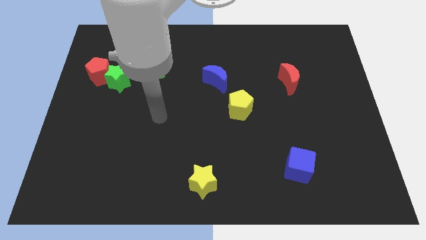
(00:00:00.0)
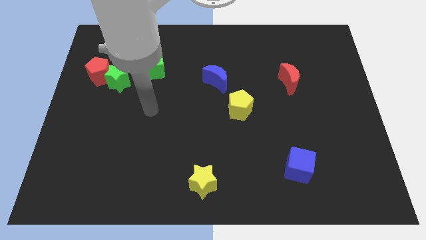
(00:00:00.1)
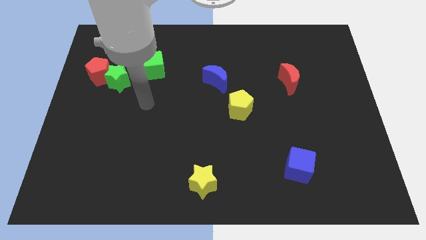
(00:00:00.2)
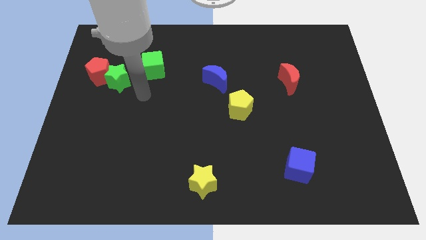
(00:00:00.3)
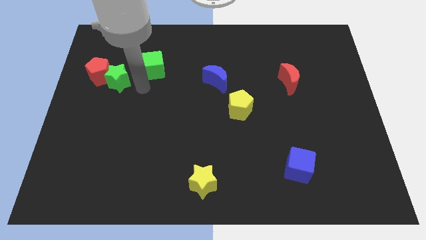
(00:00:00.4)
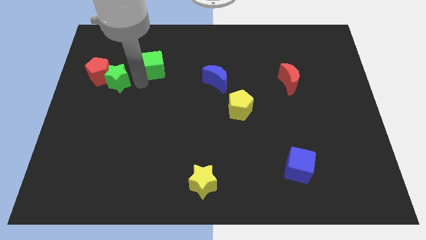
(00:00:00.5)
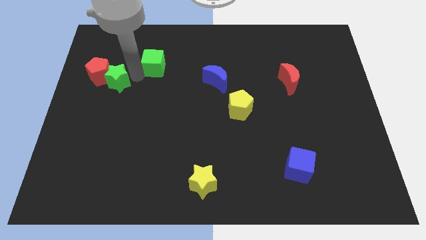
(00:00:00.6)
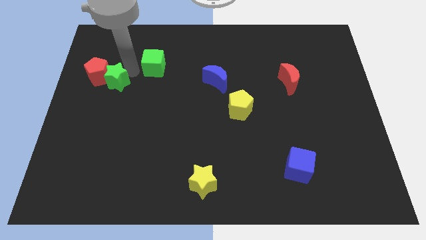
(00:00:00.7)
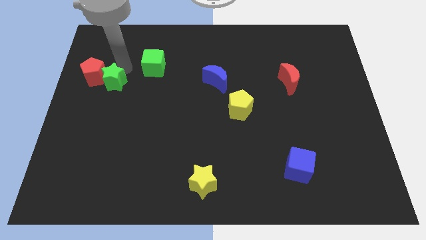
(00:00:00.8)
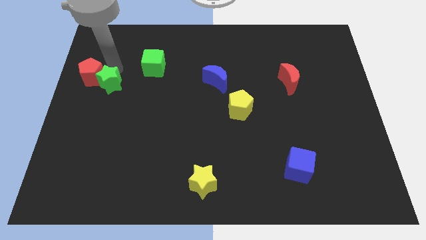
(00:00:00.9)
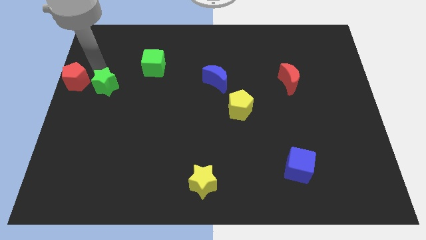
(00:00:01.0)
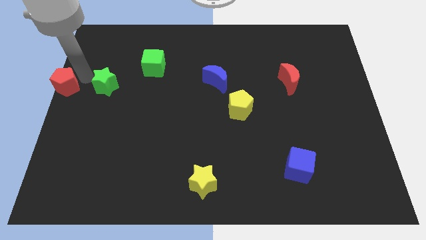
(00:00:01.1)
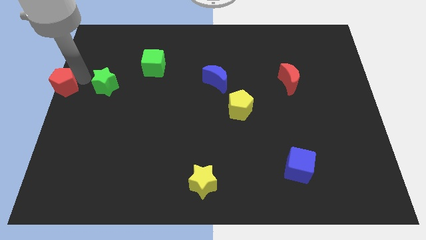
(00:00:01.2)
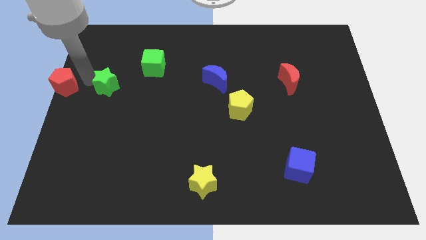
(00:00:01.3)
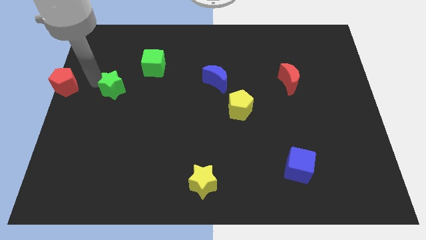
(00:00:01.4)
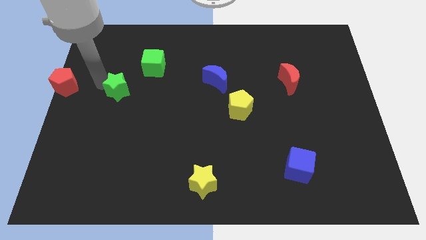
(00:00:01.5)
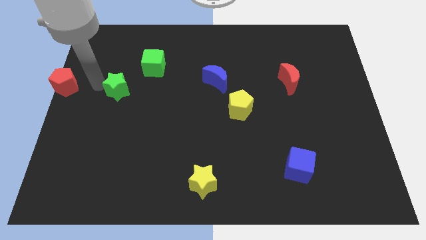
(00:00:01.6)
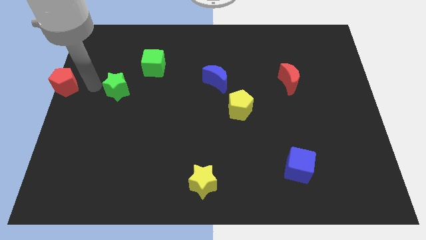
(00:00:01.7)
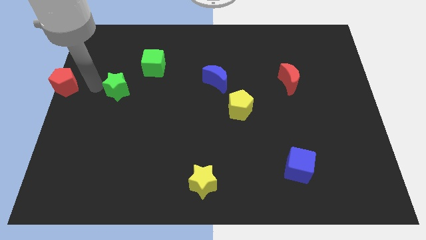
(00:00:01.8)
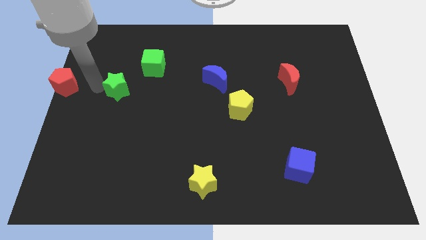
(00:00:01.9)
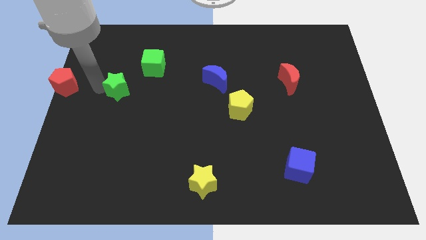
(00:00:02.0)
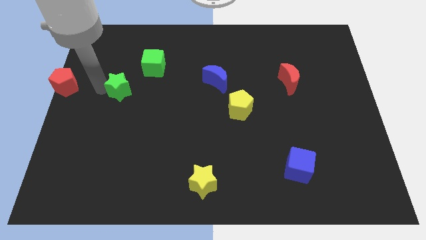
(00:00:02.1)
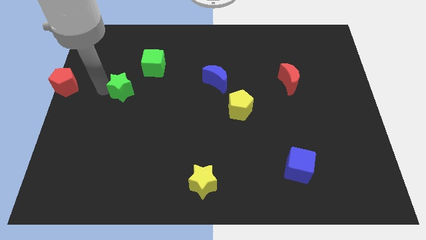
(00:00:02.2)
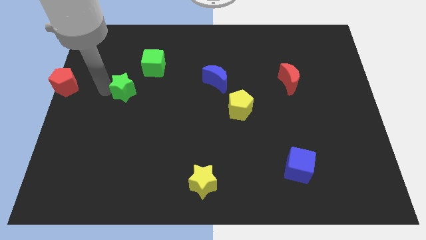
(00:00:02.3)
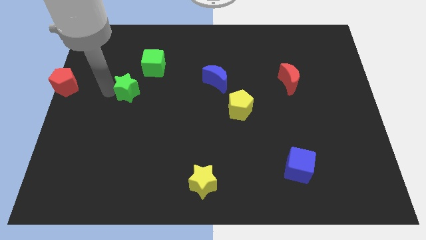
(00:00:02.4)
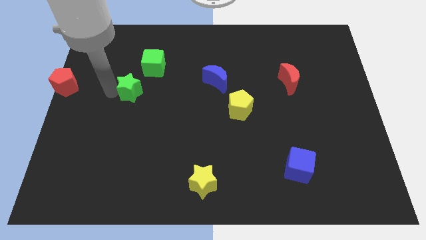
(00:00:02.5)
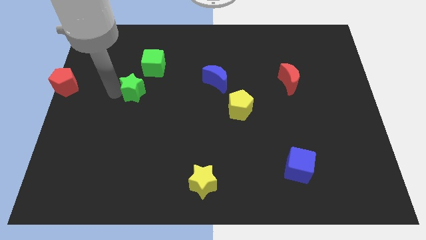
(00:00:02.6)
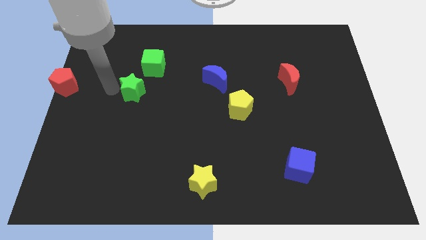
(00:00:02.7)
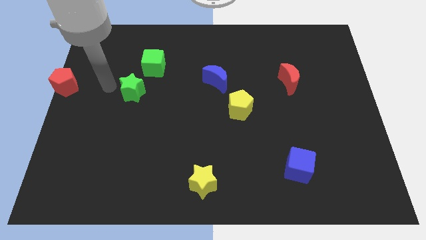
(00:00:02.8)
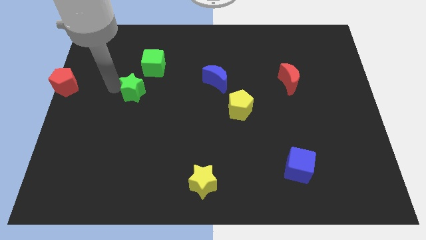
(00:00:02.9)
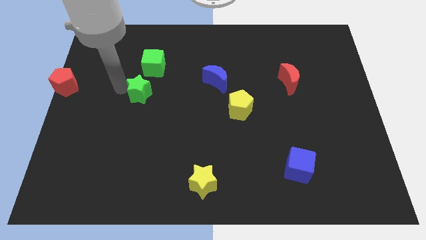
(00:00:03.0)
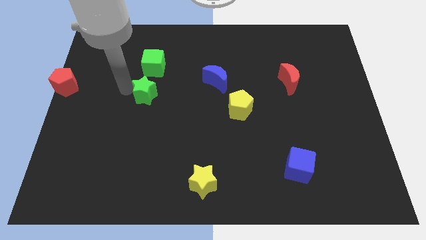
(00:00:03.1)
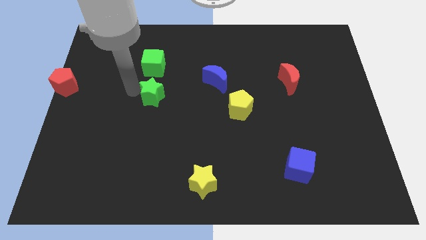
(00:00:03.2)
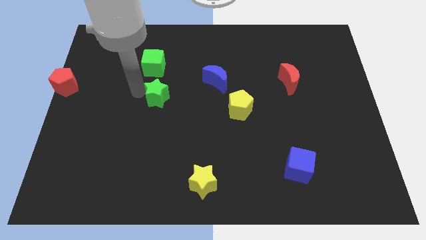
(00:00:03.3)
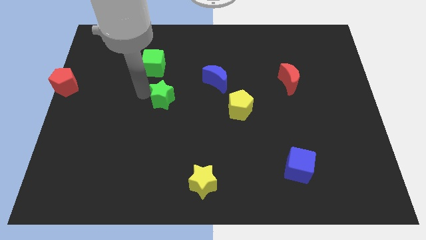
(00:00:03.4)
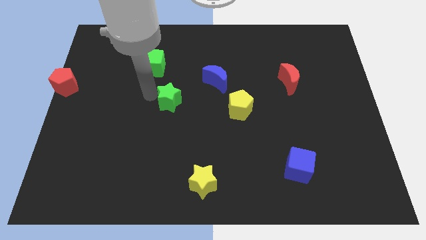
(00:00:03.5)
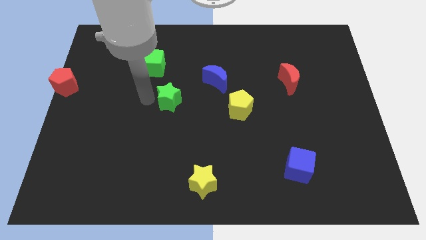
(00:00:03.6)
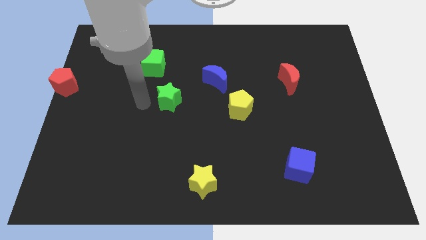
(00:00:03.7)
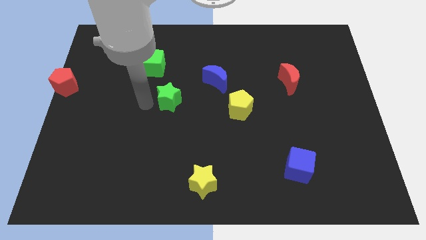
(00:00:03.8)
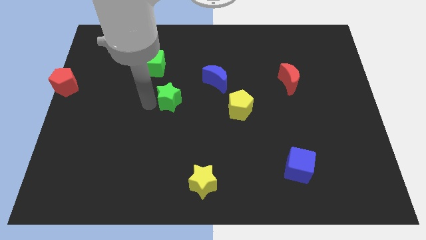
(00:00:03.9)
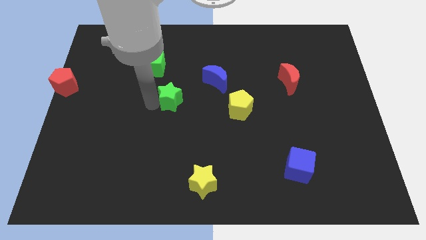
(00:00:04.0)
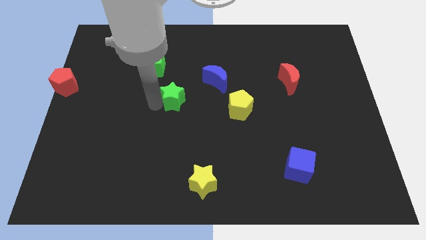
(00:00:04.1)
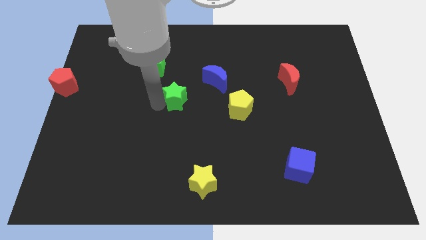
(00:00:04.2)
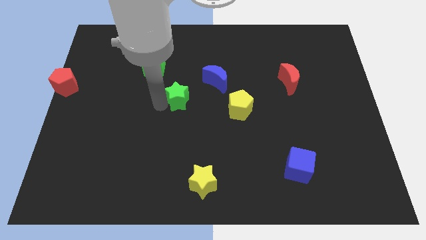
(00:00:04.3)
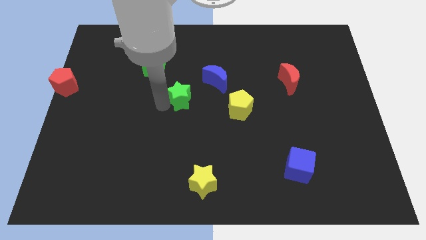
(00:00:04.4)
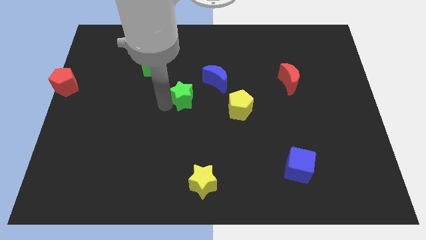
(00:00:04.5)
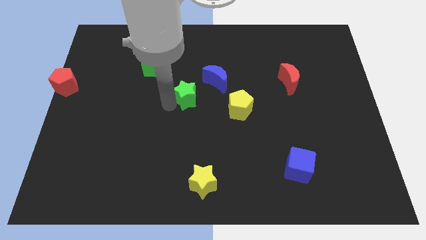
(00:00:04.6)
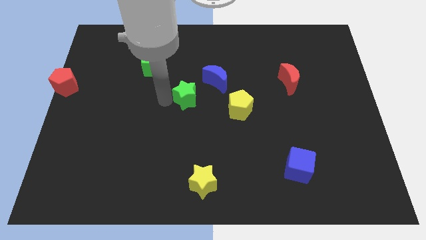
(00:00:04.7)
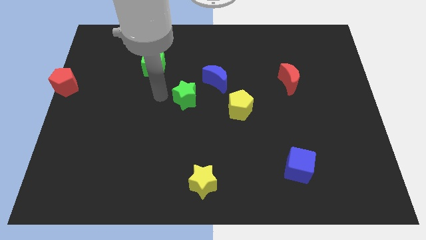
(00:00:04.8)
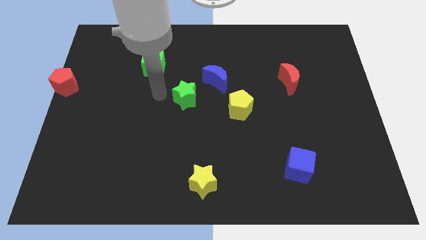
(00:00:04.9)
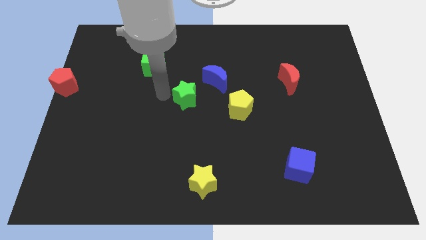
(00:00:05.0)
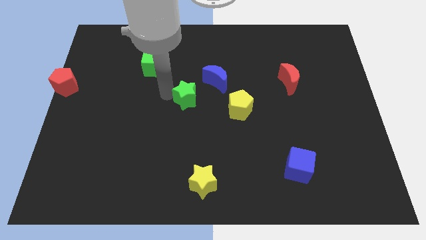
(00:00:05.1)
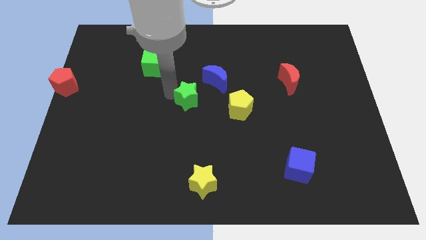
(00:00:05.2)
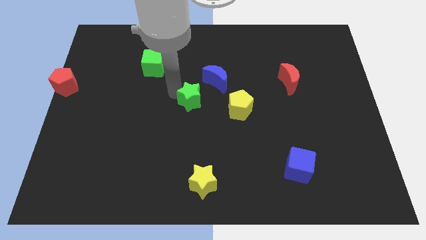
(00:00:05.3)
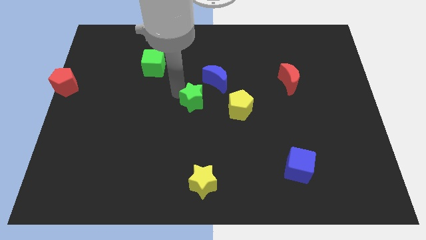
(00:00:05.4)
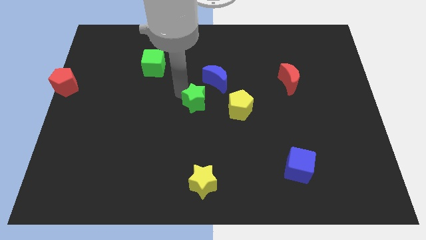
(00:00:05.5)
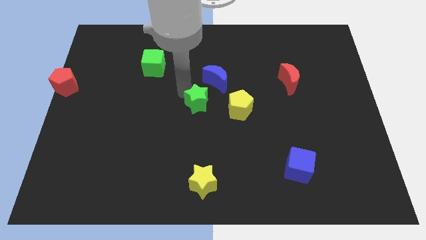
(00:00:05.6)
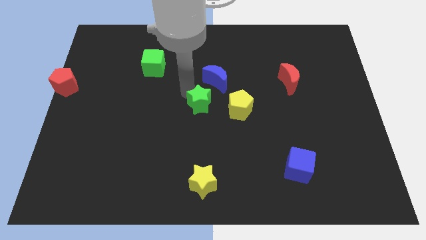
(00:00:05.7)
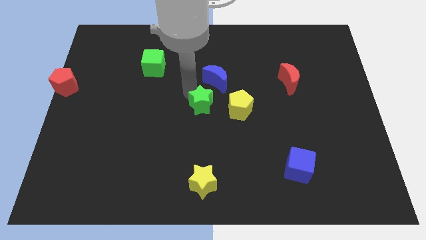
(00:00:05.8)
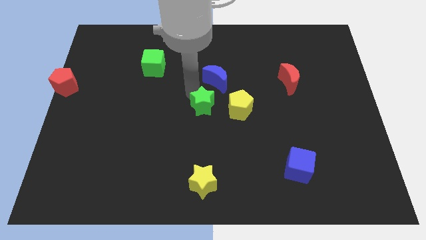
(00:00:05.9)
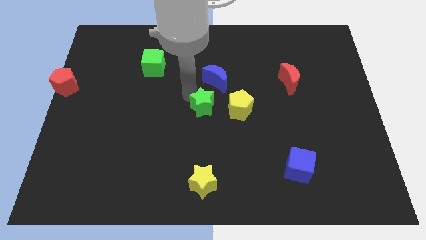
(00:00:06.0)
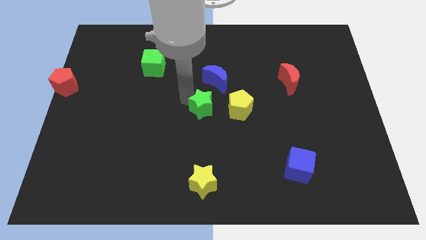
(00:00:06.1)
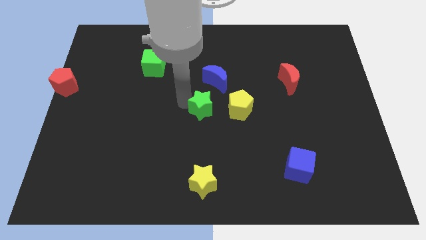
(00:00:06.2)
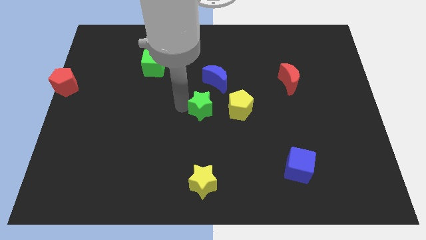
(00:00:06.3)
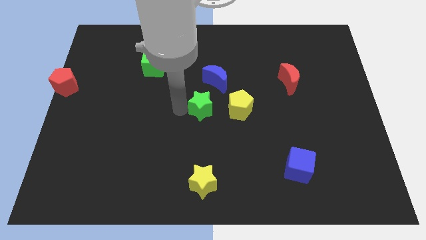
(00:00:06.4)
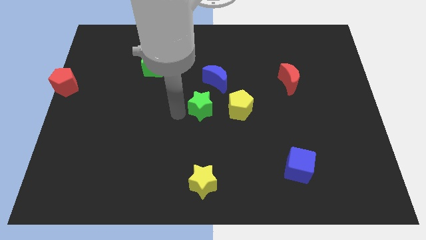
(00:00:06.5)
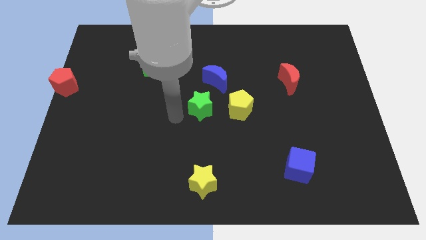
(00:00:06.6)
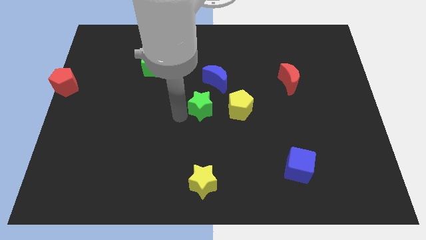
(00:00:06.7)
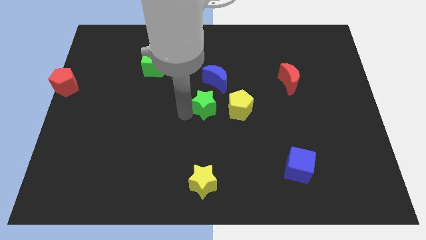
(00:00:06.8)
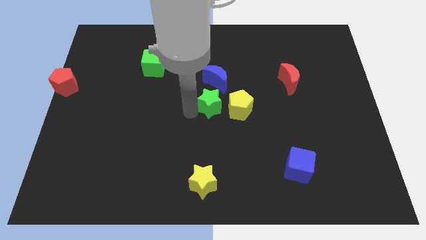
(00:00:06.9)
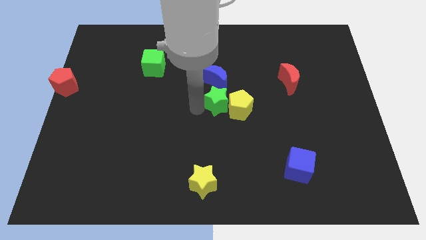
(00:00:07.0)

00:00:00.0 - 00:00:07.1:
push the green star close to the yellow pentagon
